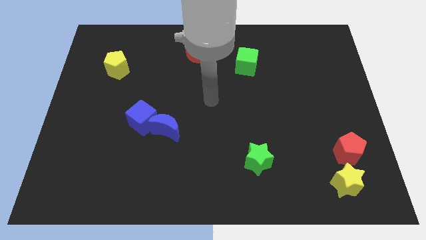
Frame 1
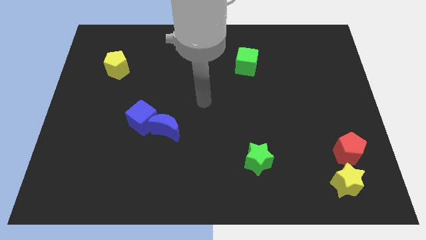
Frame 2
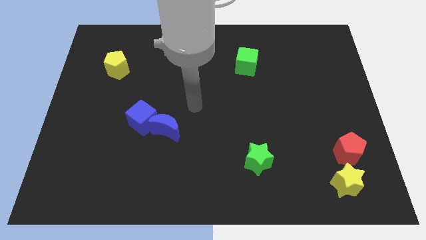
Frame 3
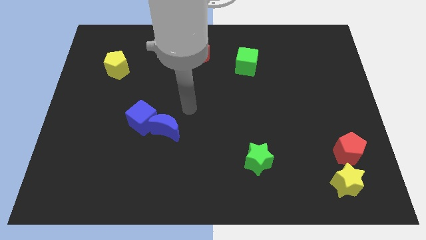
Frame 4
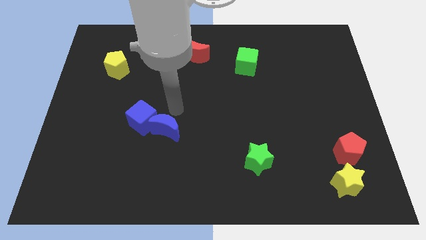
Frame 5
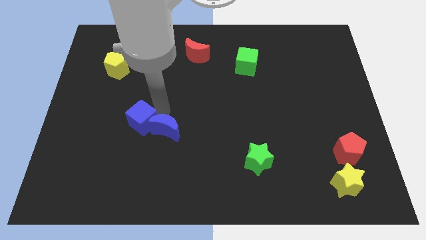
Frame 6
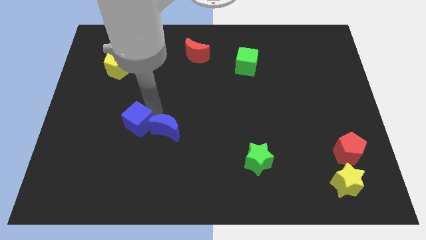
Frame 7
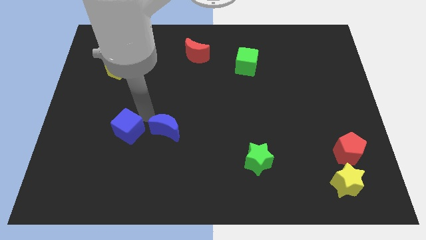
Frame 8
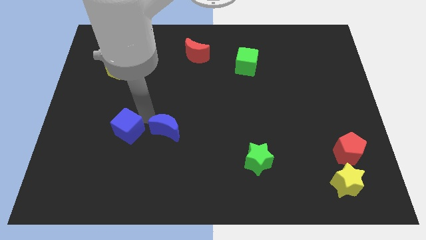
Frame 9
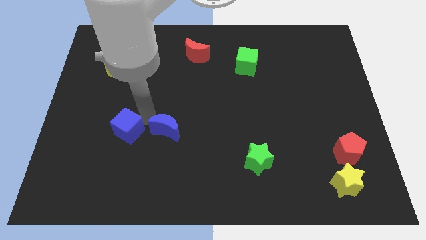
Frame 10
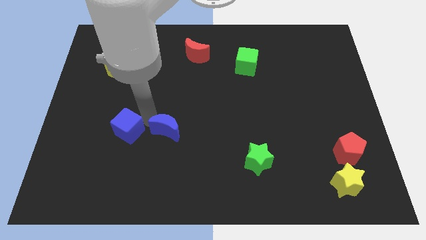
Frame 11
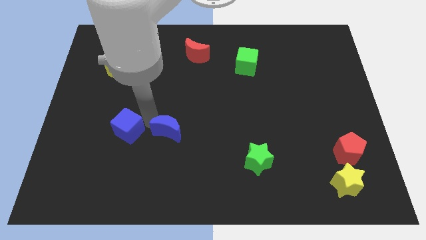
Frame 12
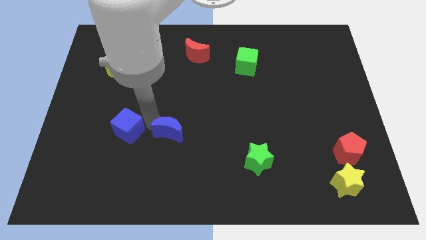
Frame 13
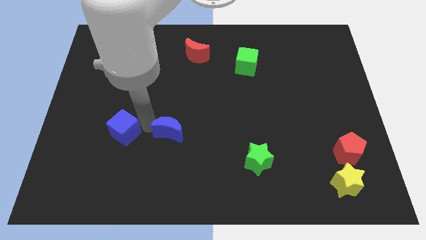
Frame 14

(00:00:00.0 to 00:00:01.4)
move the blue moon away from the blue cube

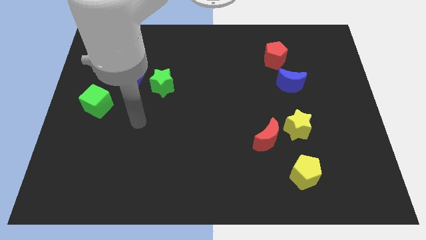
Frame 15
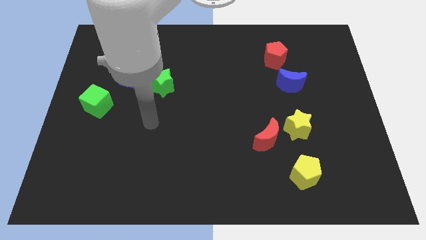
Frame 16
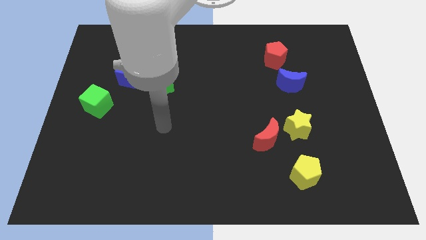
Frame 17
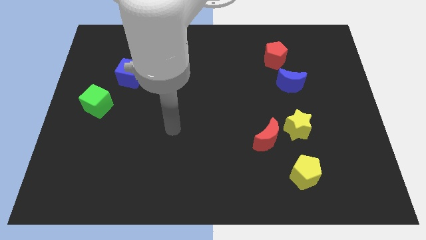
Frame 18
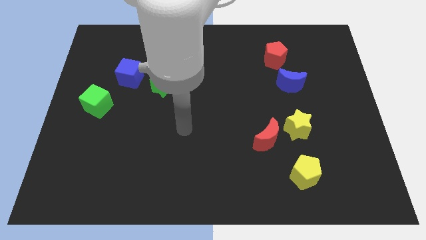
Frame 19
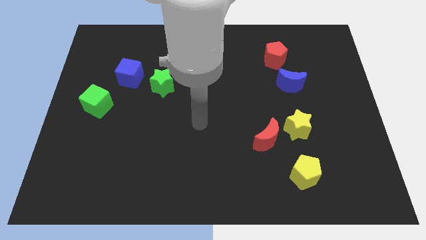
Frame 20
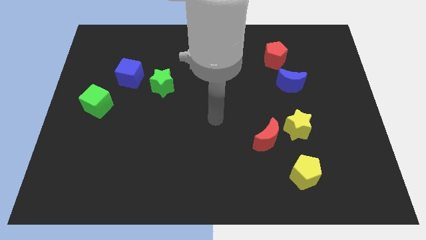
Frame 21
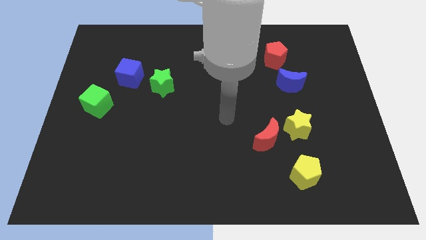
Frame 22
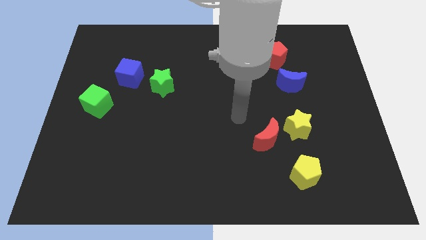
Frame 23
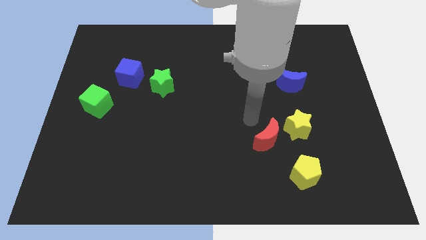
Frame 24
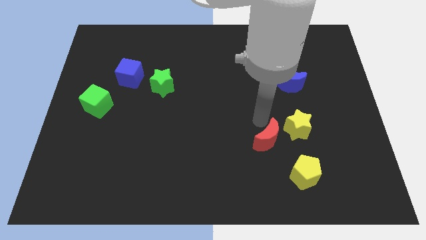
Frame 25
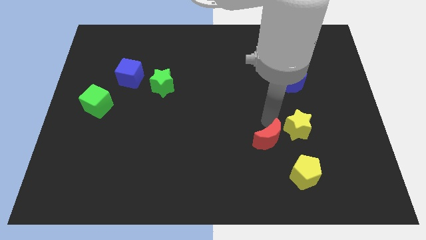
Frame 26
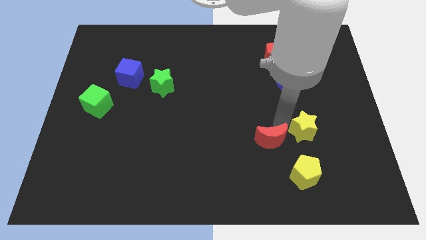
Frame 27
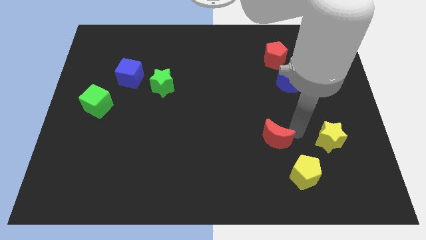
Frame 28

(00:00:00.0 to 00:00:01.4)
separate the red moon from the yellow star

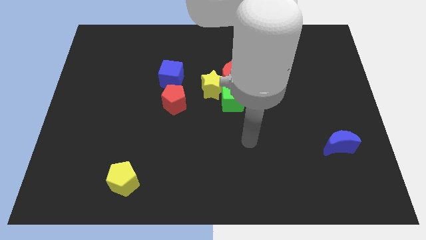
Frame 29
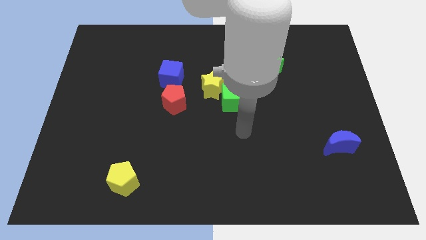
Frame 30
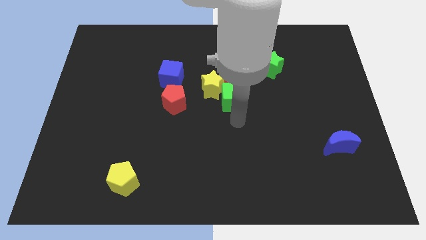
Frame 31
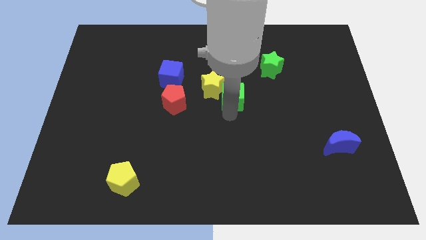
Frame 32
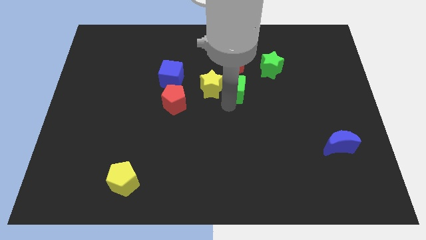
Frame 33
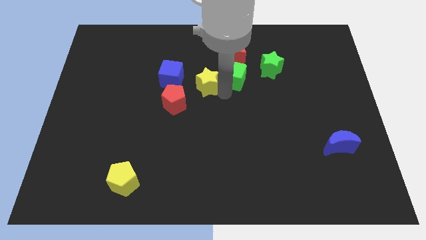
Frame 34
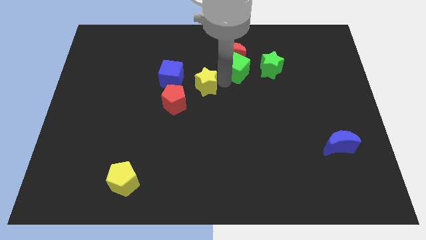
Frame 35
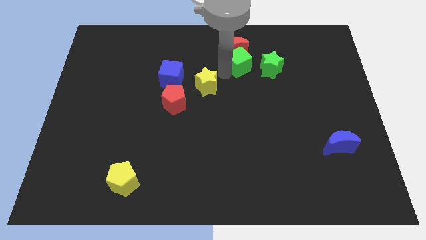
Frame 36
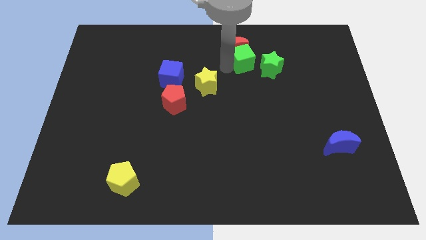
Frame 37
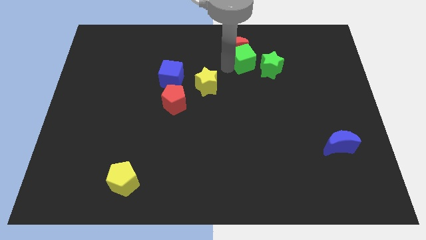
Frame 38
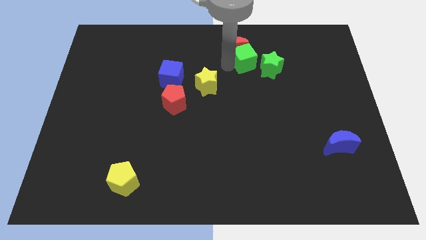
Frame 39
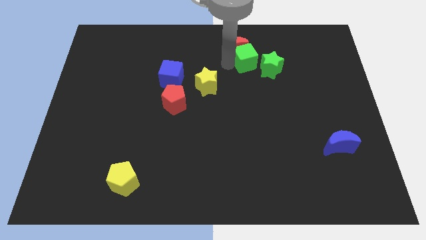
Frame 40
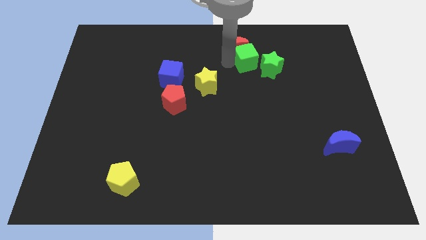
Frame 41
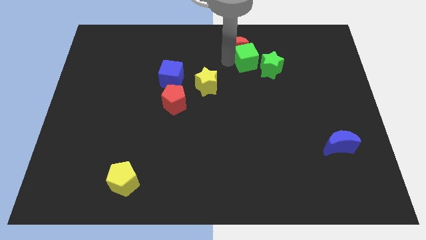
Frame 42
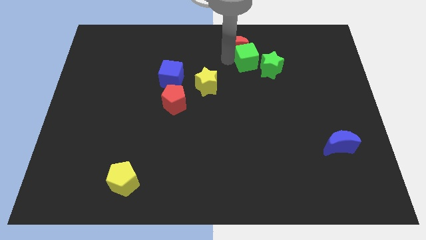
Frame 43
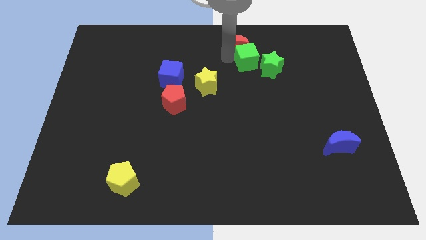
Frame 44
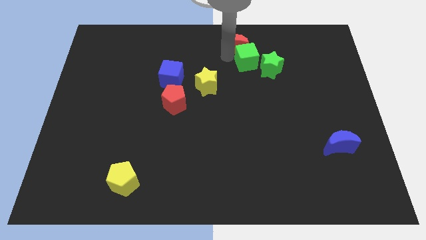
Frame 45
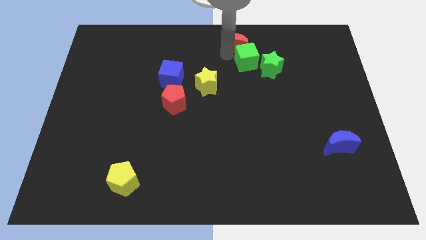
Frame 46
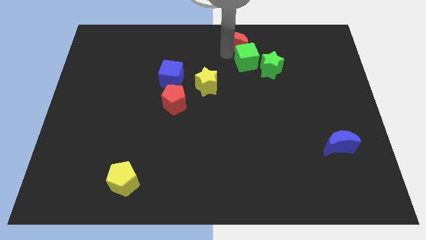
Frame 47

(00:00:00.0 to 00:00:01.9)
pull the red moon apart from the yellow star and green cube

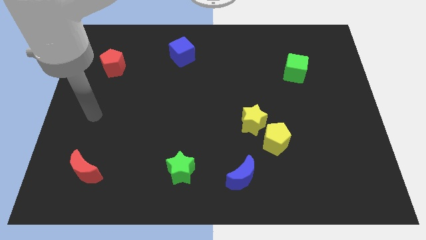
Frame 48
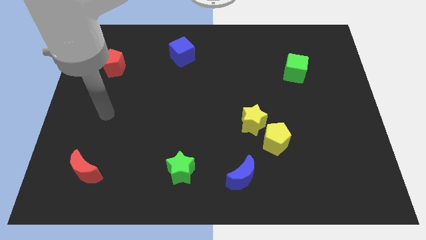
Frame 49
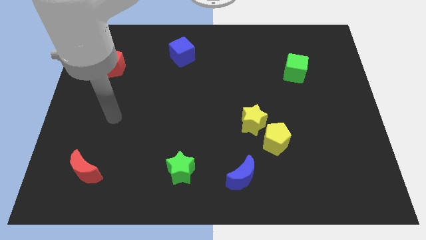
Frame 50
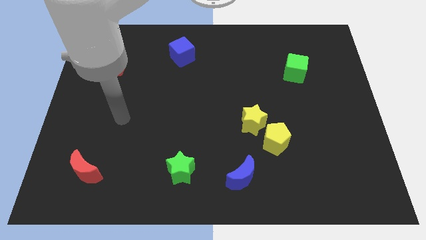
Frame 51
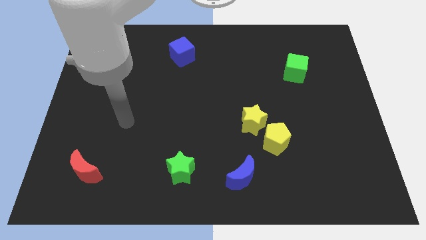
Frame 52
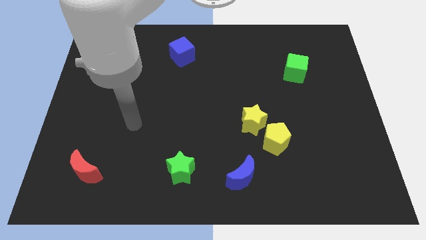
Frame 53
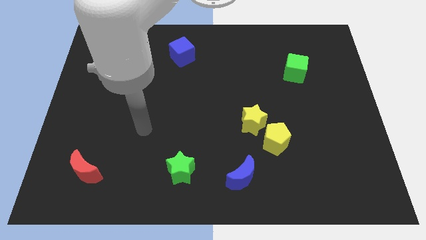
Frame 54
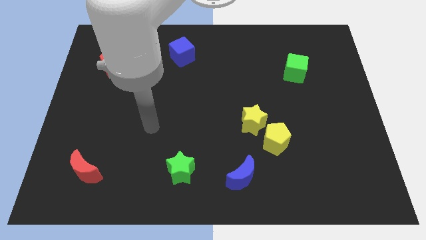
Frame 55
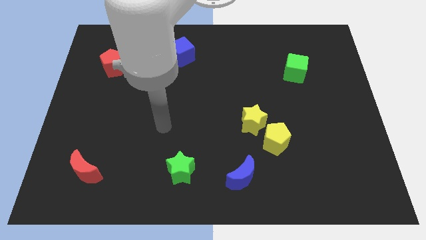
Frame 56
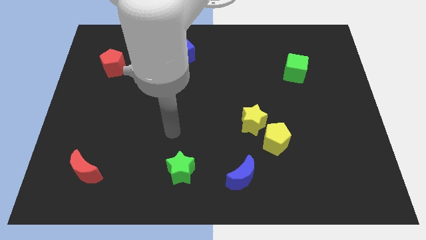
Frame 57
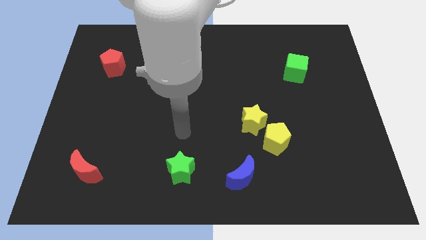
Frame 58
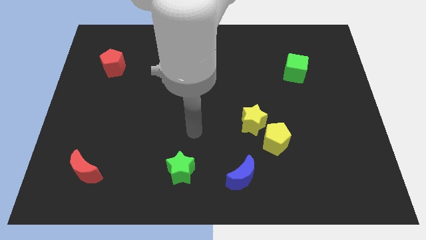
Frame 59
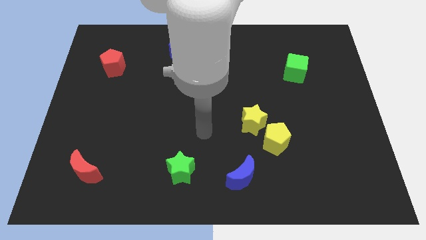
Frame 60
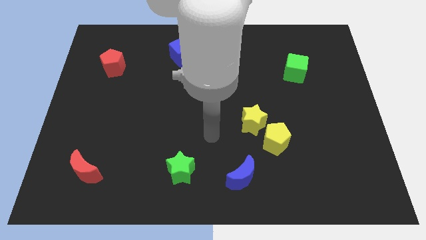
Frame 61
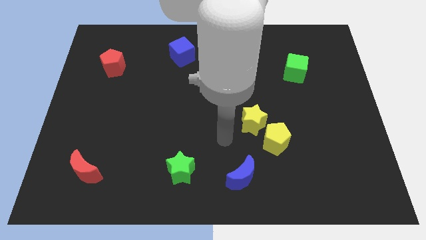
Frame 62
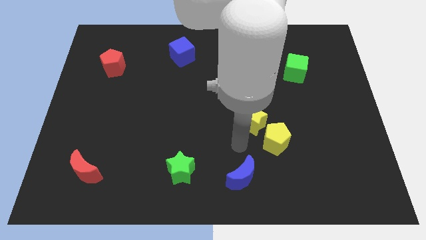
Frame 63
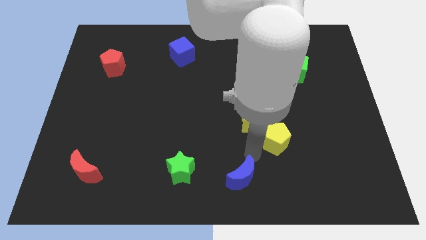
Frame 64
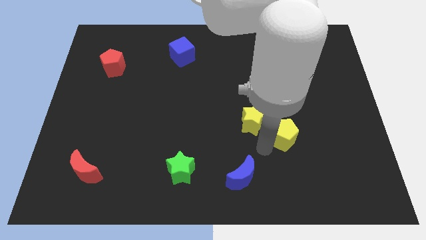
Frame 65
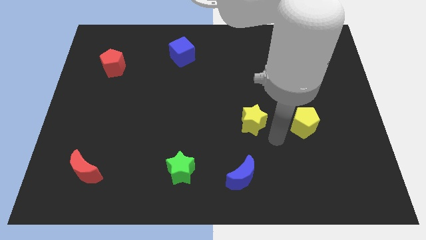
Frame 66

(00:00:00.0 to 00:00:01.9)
move the yellow star away from the yellow pentagon

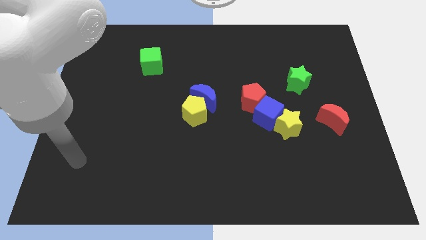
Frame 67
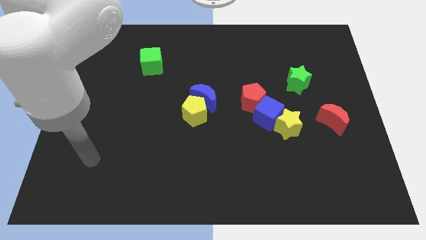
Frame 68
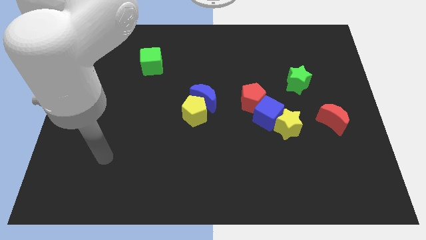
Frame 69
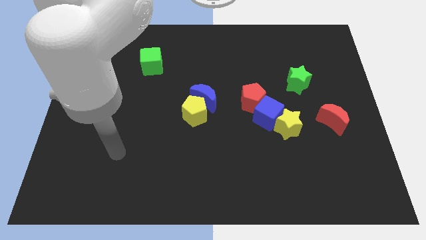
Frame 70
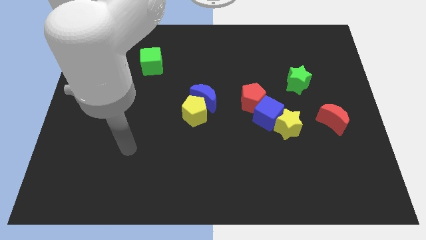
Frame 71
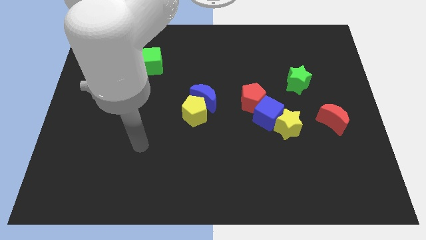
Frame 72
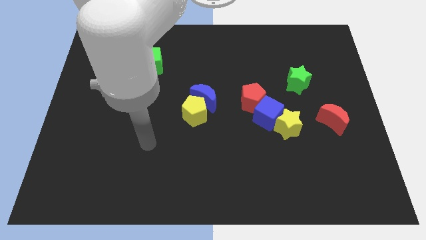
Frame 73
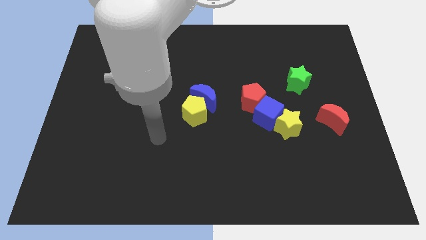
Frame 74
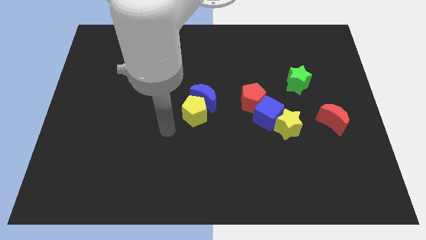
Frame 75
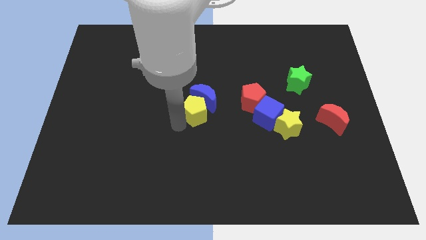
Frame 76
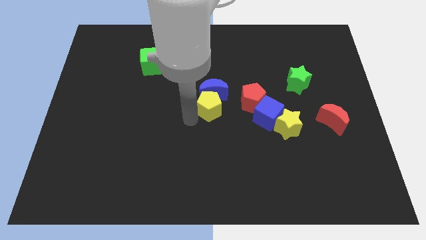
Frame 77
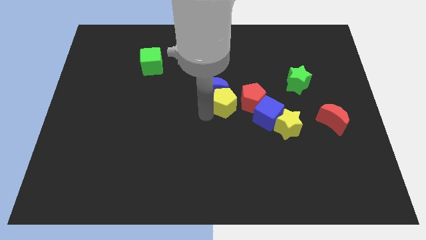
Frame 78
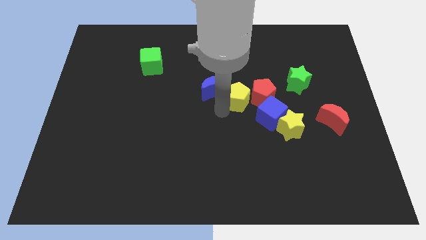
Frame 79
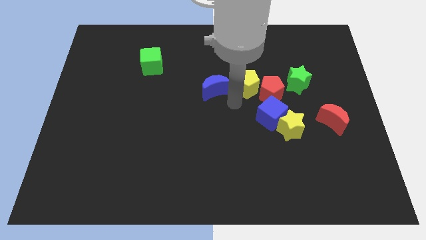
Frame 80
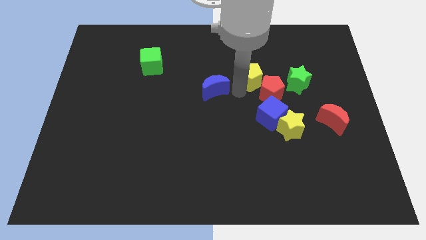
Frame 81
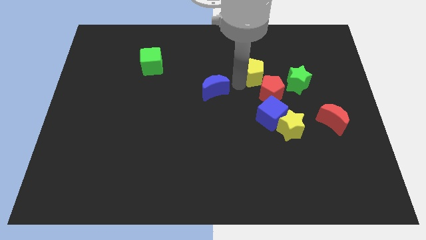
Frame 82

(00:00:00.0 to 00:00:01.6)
pull the blue moon apart from the yellow pentagon

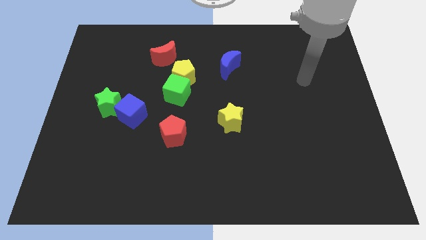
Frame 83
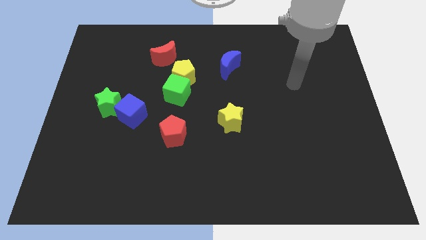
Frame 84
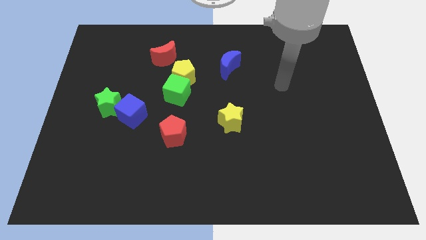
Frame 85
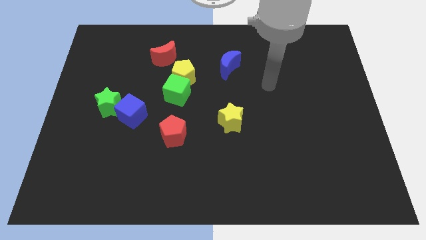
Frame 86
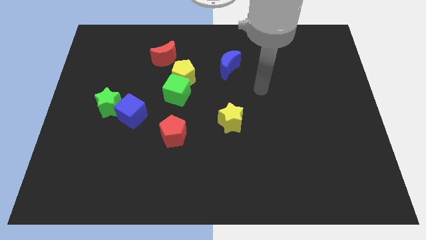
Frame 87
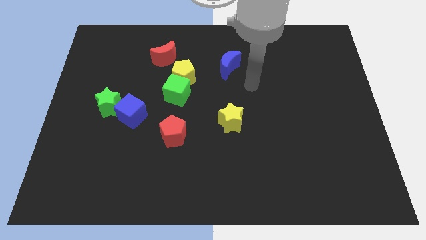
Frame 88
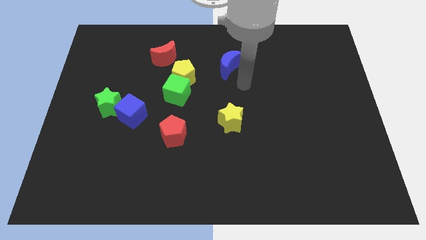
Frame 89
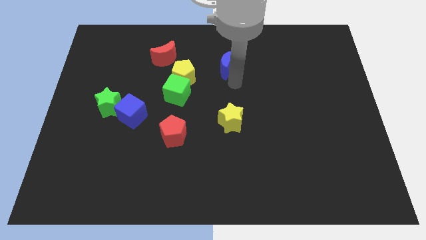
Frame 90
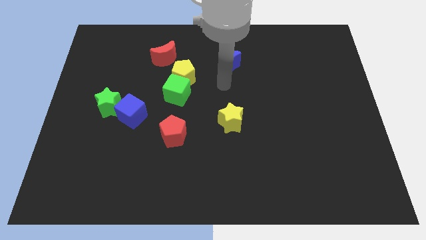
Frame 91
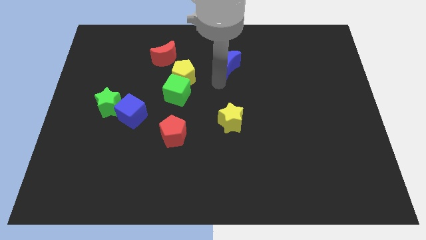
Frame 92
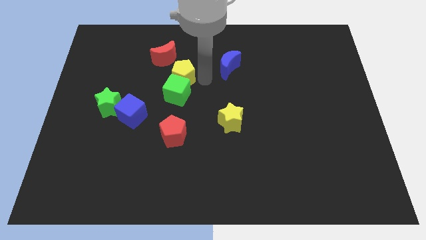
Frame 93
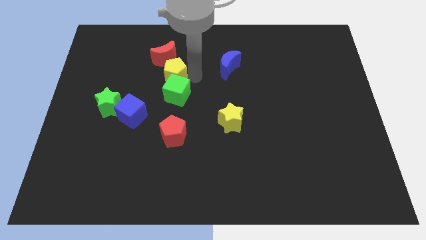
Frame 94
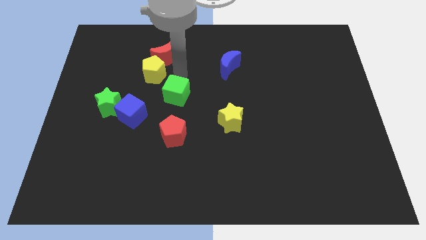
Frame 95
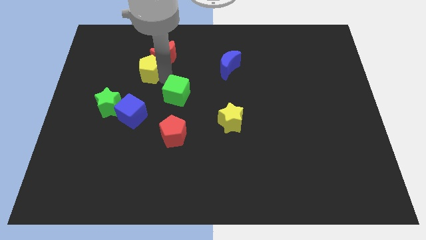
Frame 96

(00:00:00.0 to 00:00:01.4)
move the green cube away from the yellow pentagon
